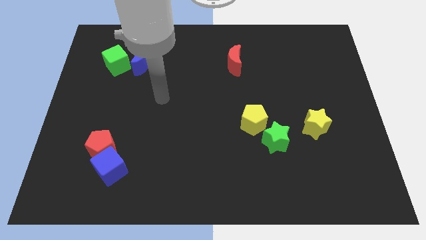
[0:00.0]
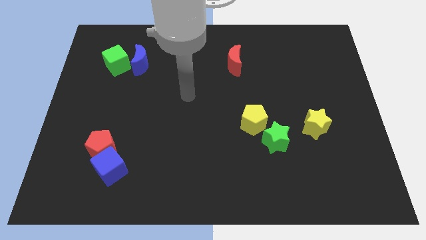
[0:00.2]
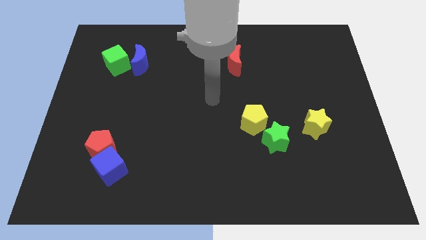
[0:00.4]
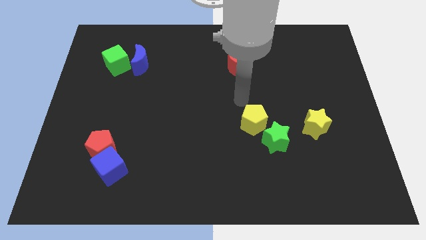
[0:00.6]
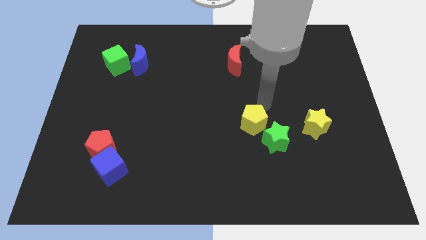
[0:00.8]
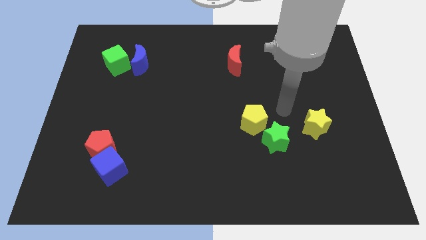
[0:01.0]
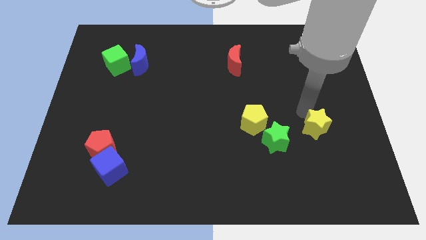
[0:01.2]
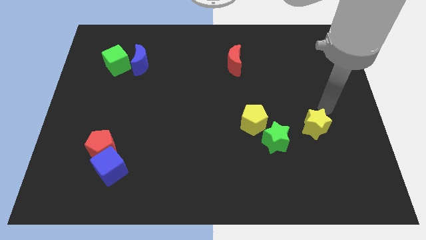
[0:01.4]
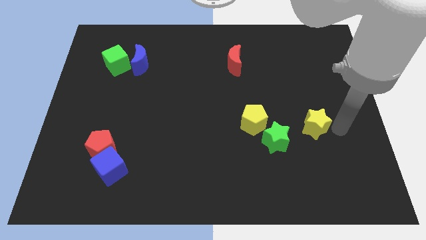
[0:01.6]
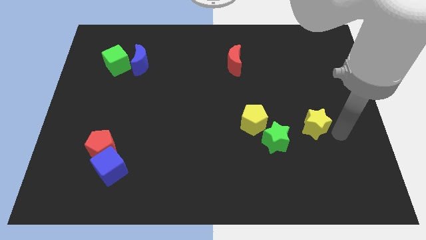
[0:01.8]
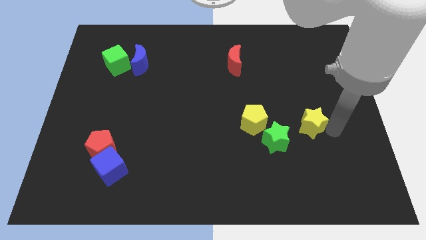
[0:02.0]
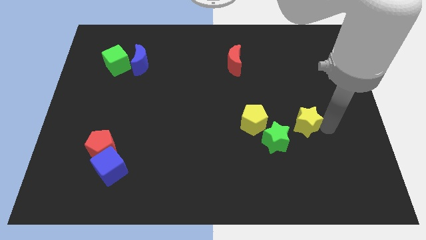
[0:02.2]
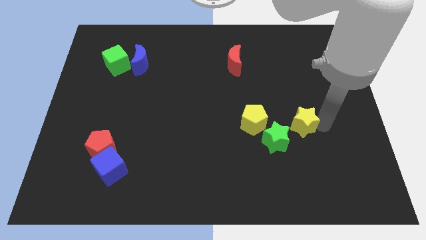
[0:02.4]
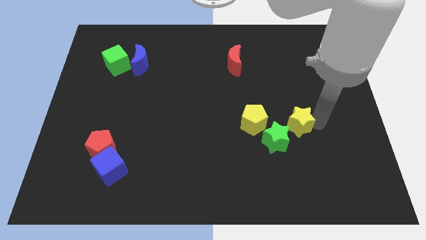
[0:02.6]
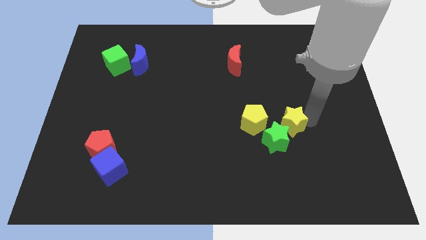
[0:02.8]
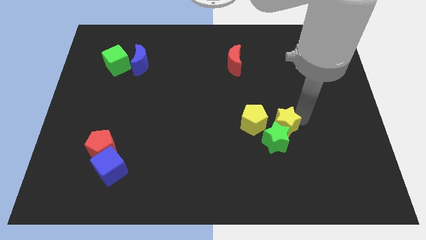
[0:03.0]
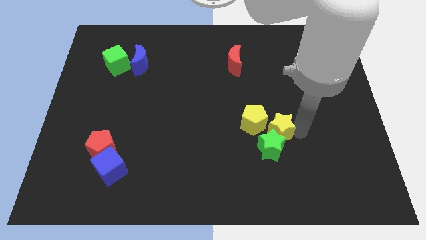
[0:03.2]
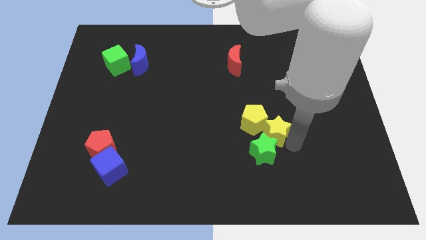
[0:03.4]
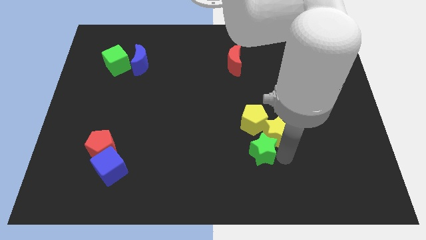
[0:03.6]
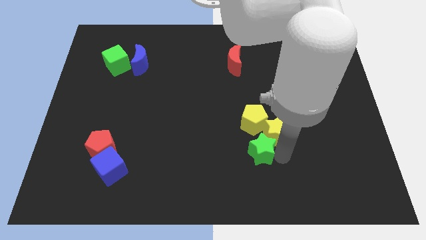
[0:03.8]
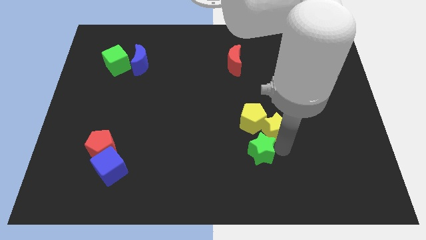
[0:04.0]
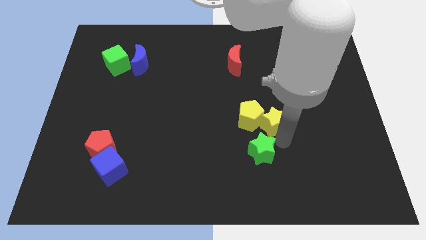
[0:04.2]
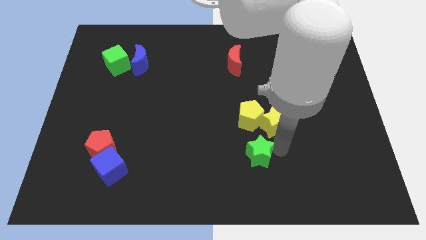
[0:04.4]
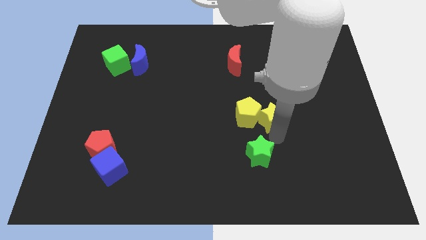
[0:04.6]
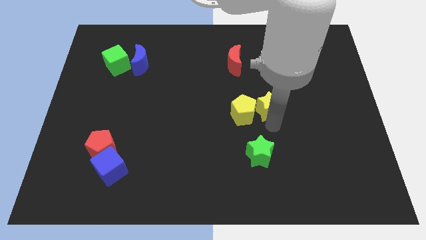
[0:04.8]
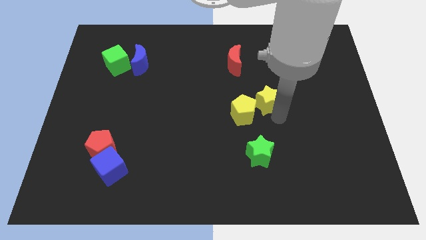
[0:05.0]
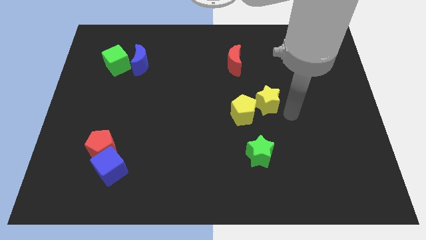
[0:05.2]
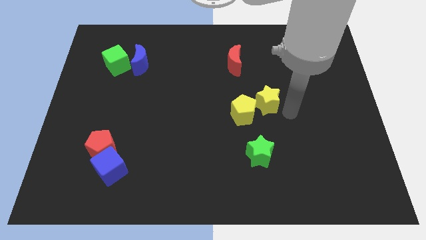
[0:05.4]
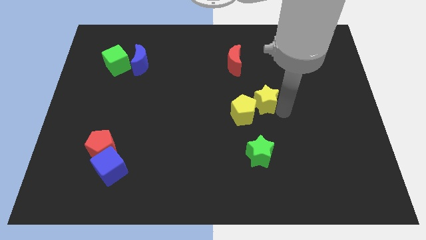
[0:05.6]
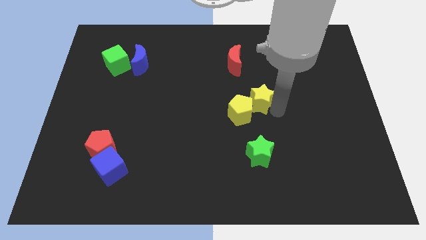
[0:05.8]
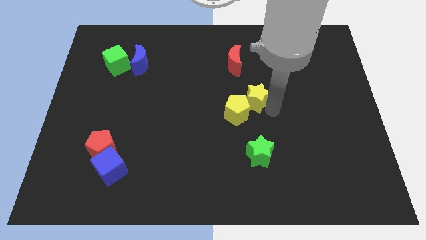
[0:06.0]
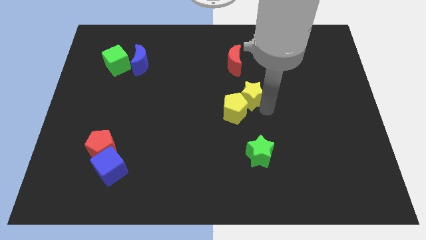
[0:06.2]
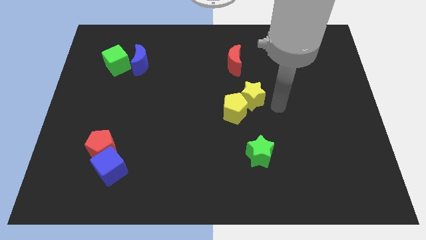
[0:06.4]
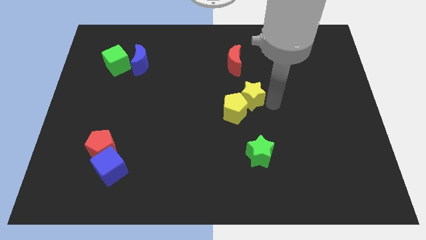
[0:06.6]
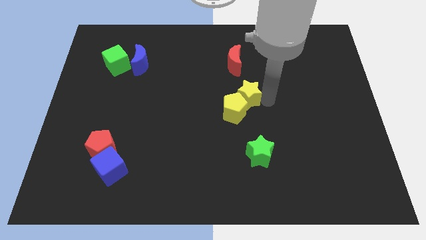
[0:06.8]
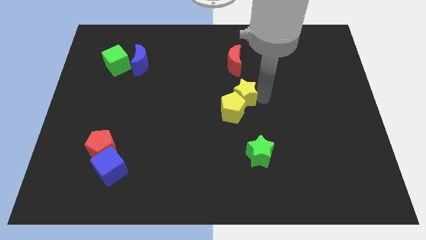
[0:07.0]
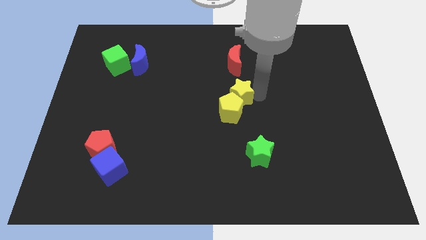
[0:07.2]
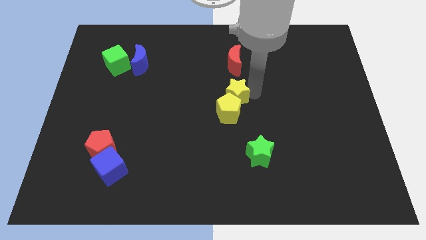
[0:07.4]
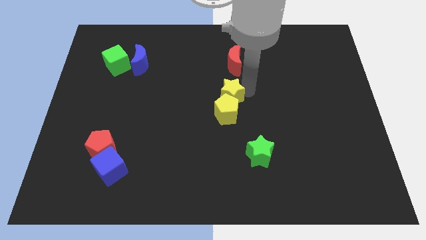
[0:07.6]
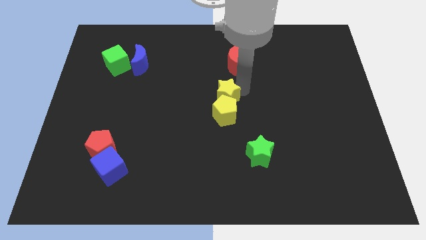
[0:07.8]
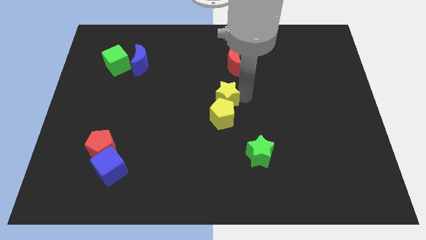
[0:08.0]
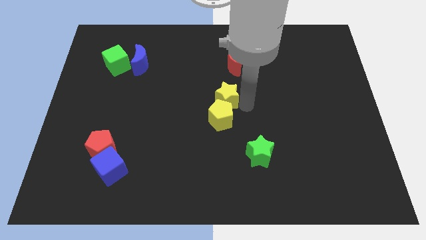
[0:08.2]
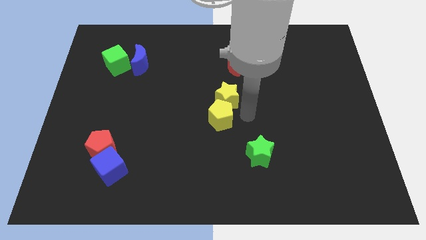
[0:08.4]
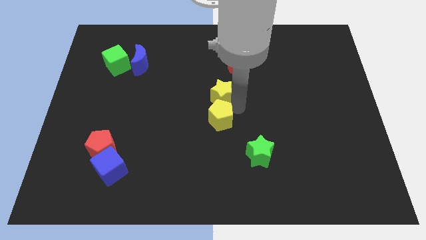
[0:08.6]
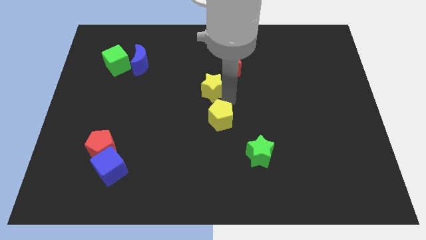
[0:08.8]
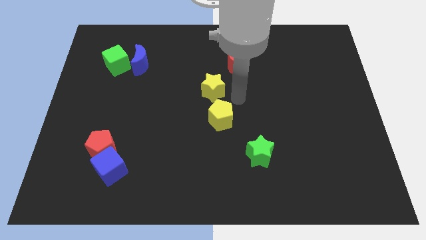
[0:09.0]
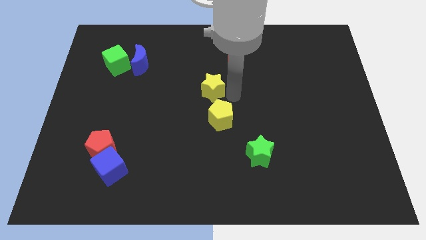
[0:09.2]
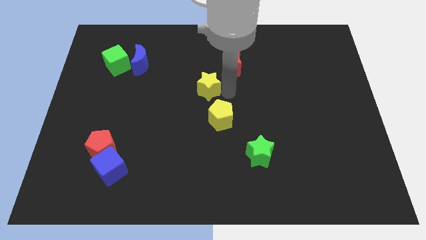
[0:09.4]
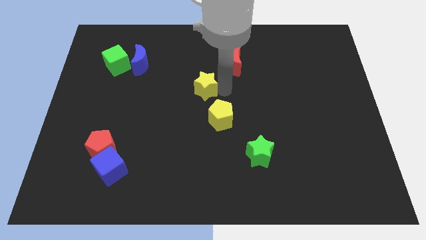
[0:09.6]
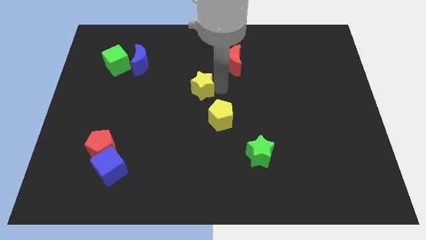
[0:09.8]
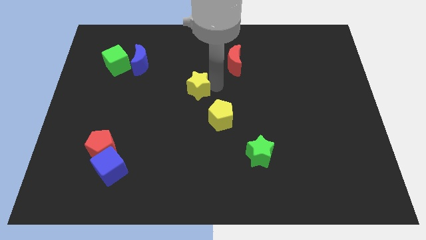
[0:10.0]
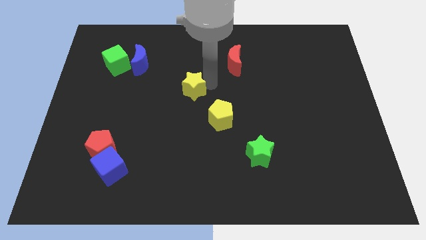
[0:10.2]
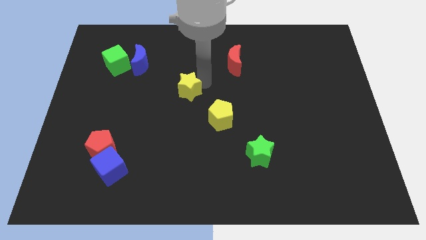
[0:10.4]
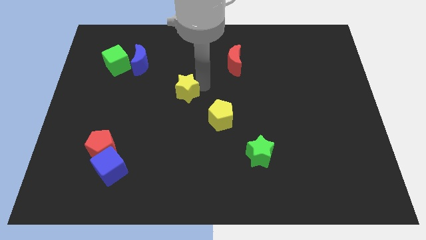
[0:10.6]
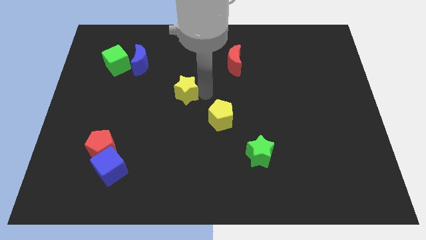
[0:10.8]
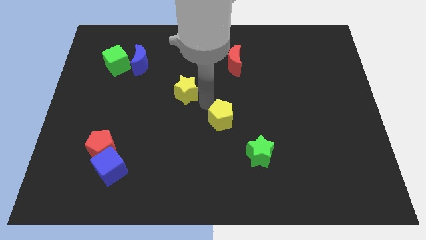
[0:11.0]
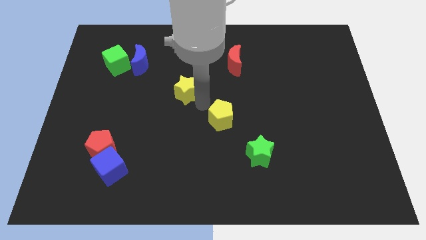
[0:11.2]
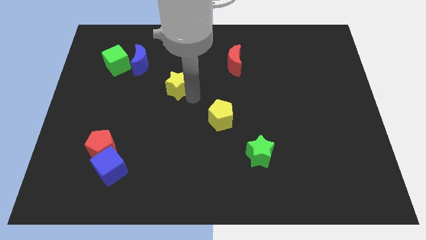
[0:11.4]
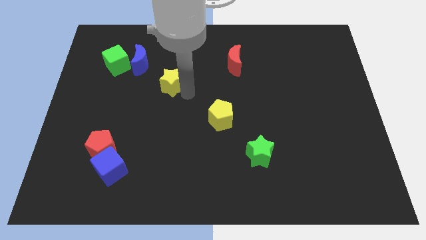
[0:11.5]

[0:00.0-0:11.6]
put the yellow star to the bottom right side of the blue moon

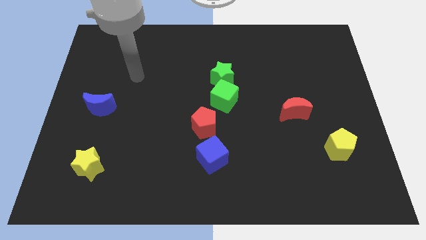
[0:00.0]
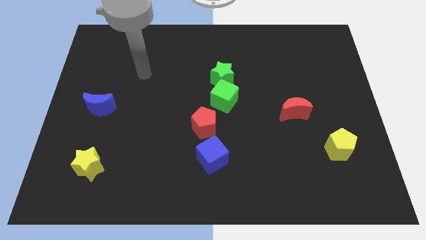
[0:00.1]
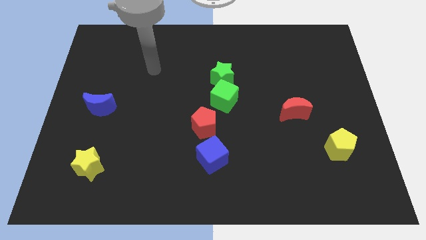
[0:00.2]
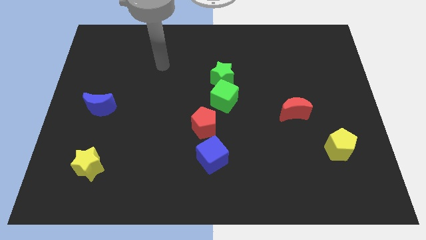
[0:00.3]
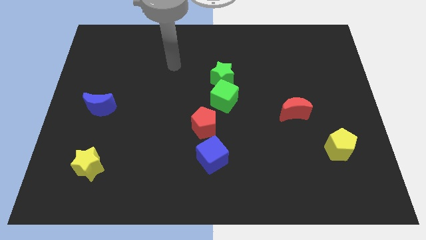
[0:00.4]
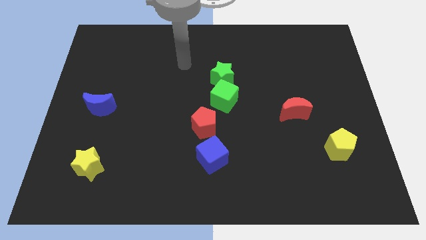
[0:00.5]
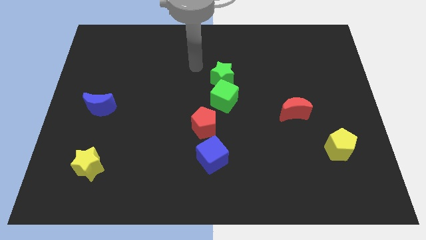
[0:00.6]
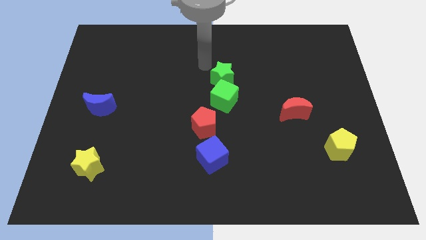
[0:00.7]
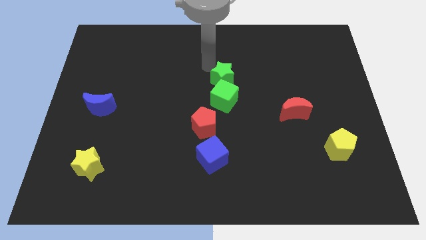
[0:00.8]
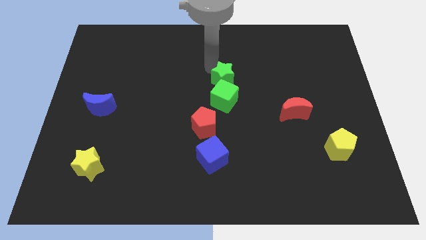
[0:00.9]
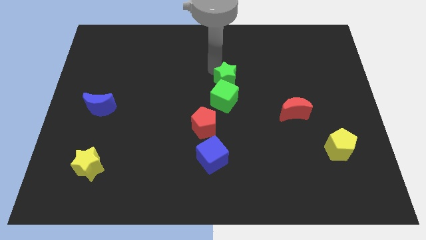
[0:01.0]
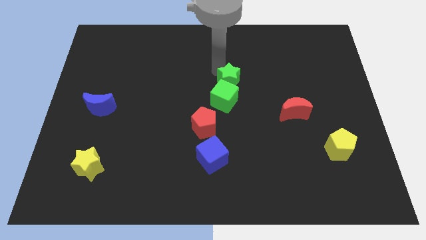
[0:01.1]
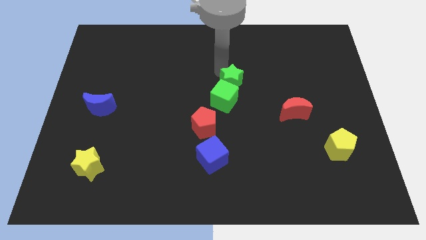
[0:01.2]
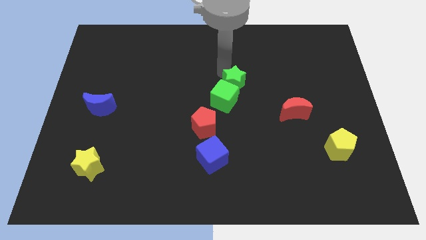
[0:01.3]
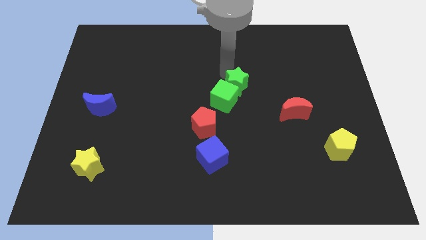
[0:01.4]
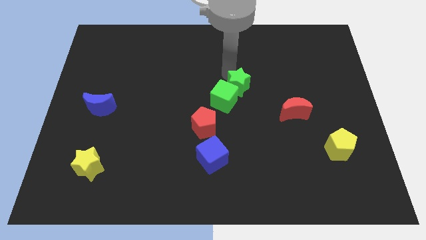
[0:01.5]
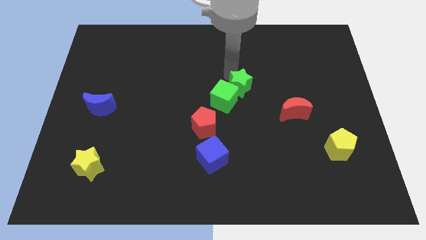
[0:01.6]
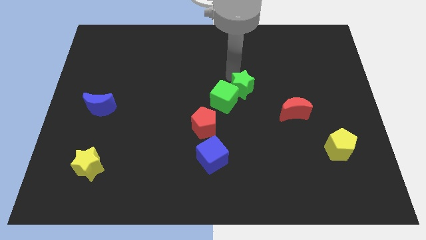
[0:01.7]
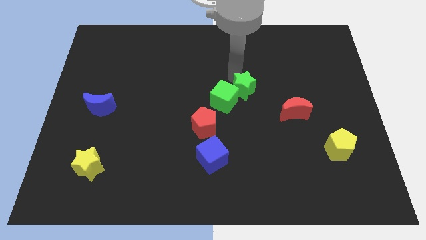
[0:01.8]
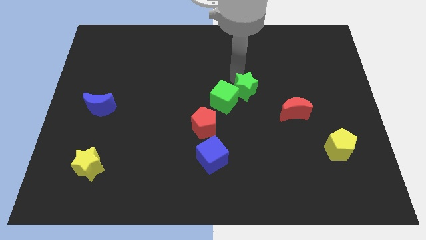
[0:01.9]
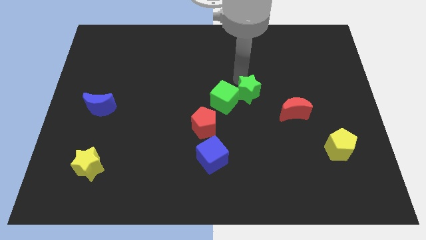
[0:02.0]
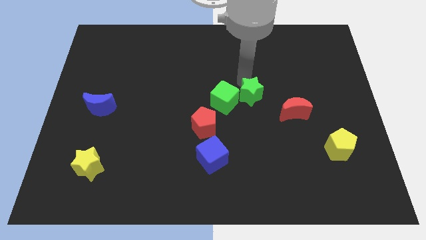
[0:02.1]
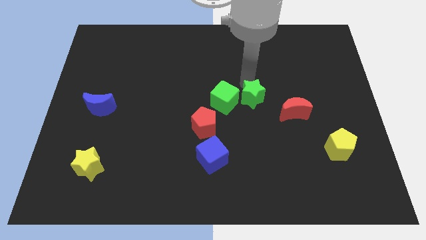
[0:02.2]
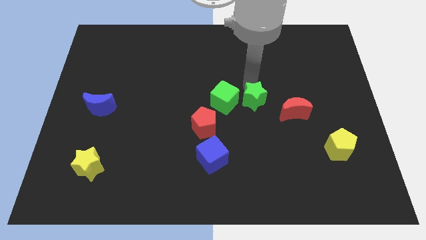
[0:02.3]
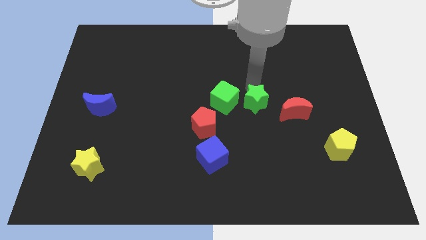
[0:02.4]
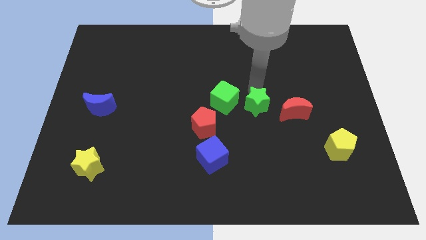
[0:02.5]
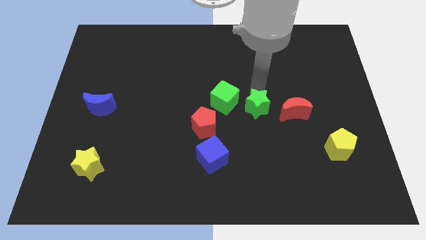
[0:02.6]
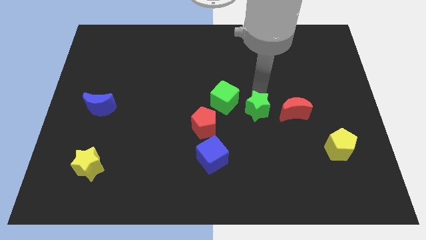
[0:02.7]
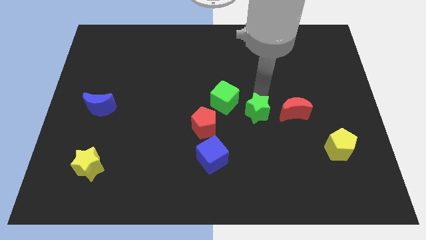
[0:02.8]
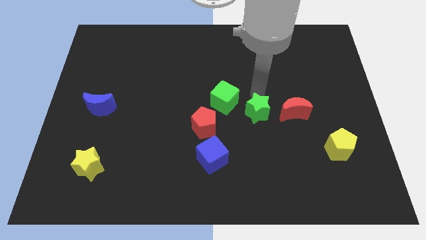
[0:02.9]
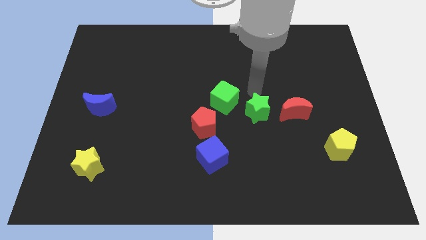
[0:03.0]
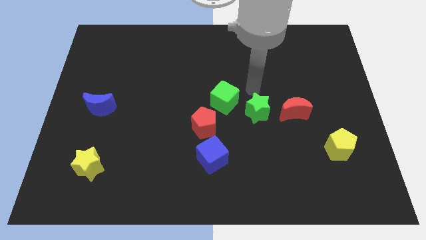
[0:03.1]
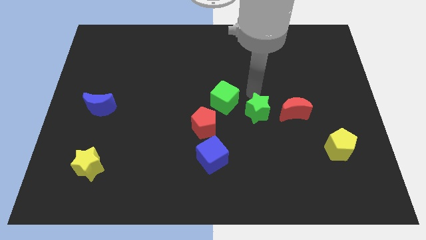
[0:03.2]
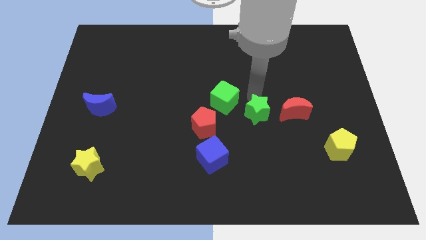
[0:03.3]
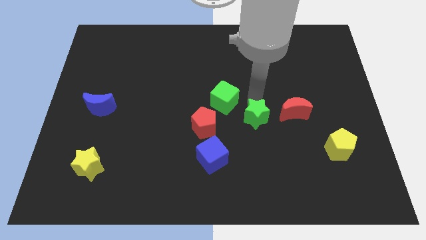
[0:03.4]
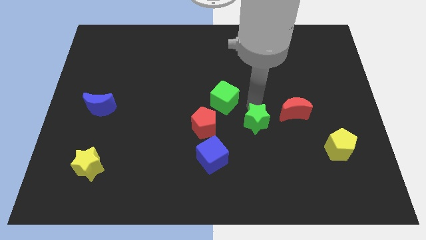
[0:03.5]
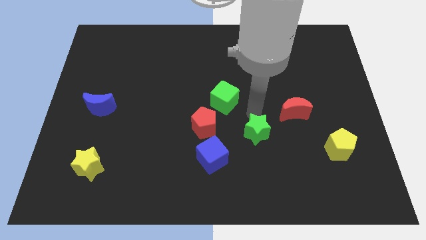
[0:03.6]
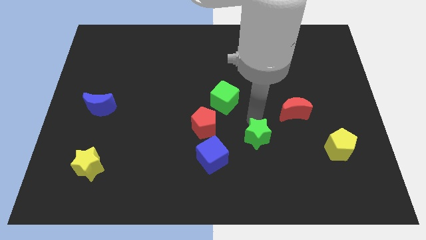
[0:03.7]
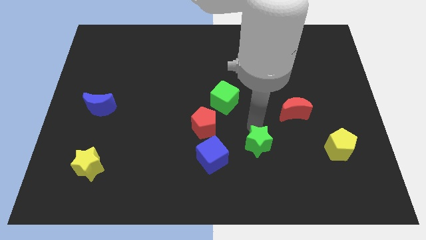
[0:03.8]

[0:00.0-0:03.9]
push the green star just right of the blue cube
